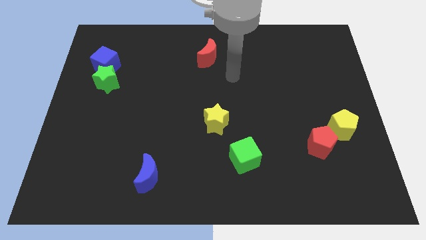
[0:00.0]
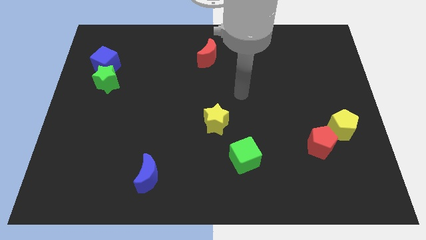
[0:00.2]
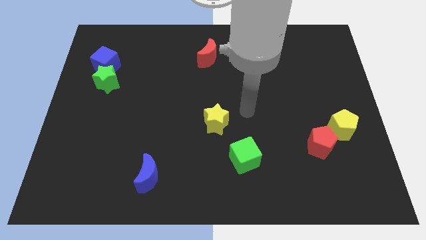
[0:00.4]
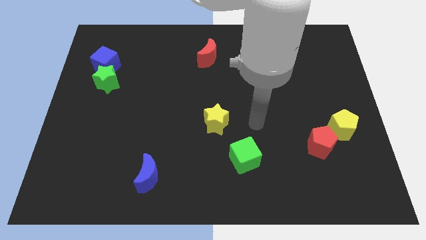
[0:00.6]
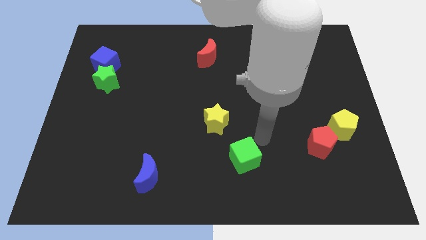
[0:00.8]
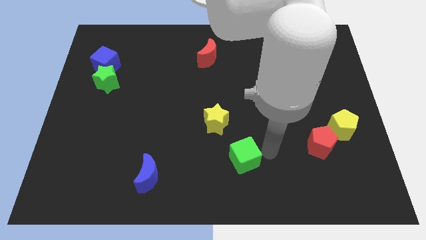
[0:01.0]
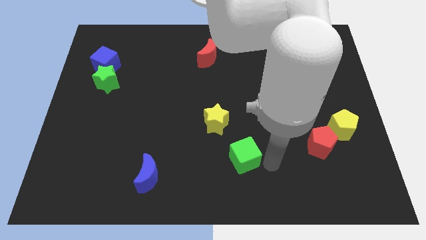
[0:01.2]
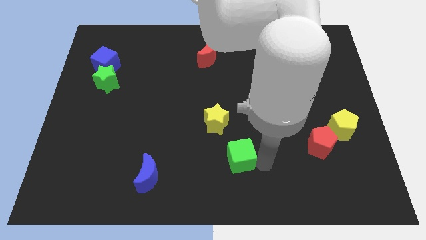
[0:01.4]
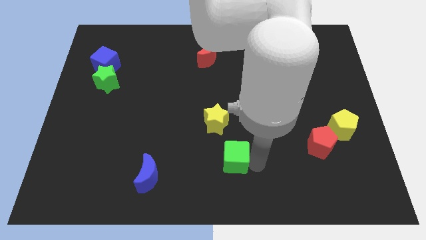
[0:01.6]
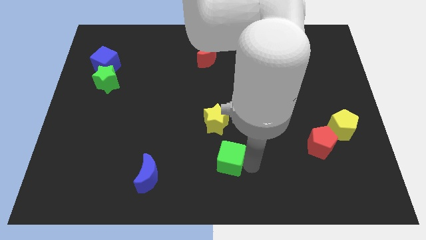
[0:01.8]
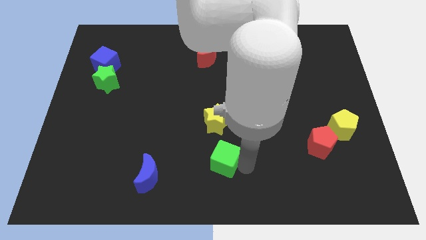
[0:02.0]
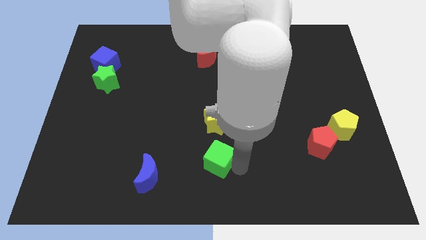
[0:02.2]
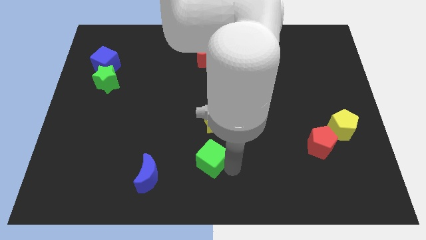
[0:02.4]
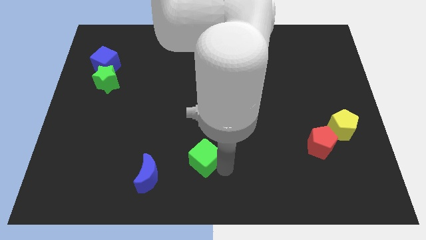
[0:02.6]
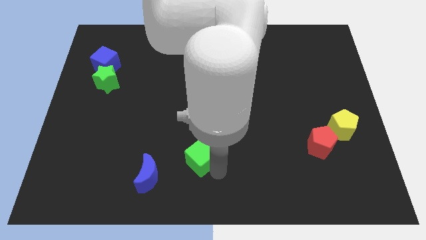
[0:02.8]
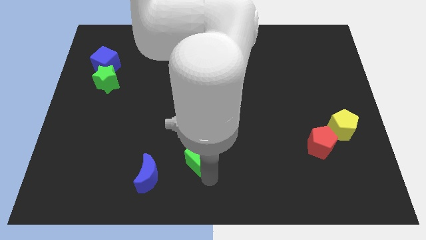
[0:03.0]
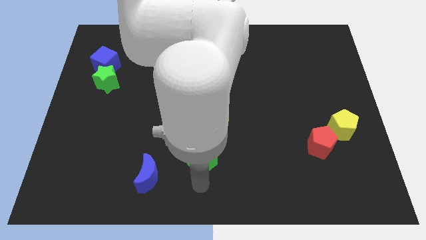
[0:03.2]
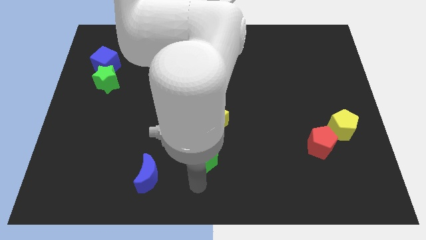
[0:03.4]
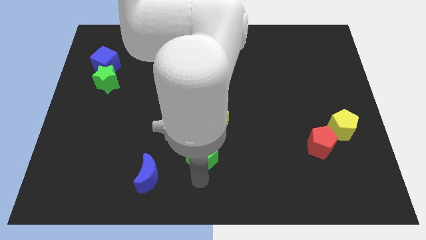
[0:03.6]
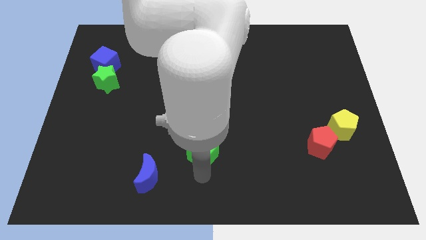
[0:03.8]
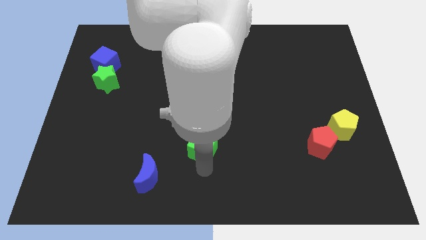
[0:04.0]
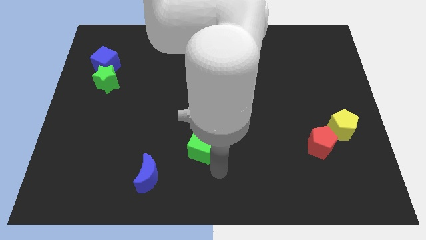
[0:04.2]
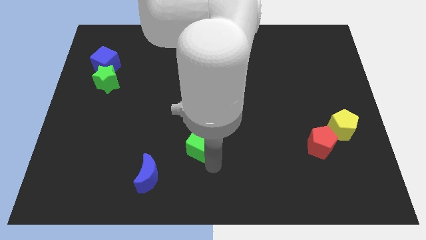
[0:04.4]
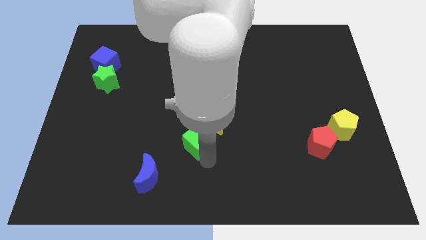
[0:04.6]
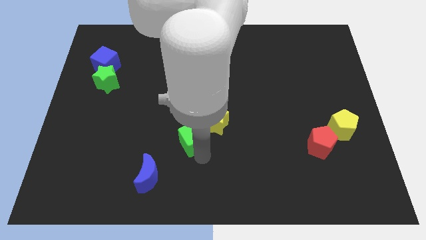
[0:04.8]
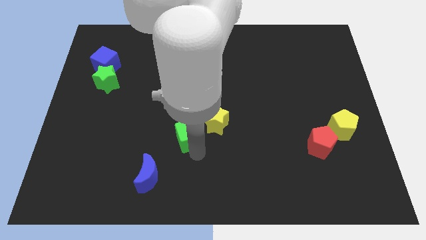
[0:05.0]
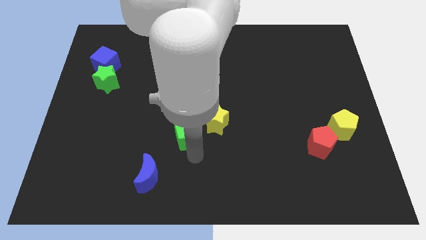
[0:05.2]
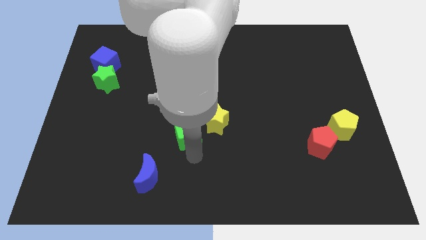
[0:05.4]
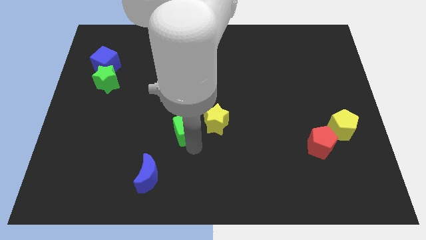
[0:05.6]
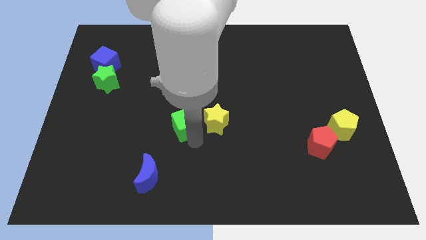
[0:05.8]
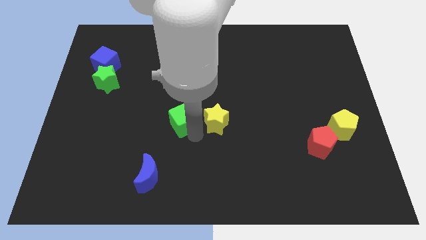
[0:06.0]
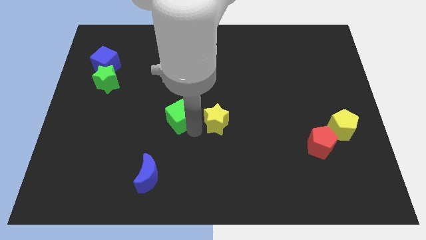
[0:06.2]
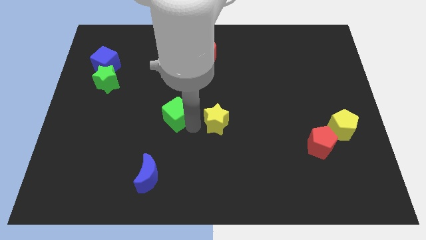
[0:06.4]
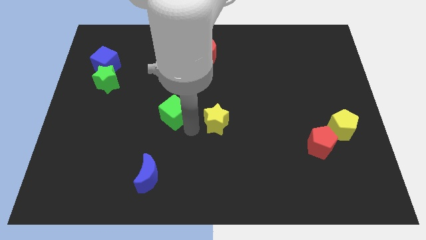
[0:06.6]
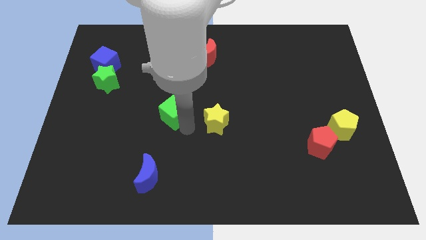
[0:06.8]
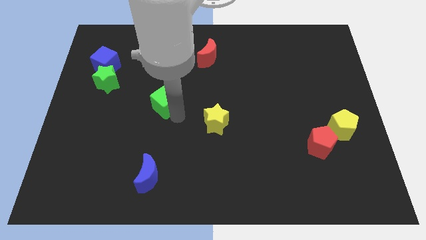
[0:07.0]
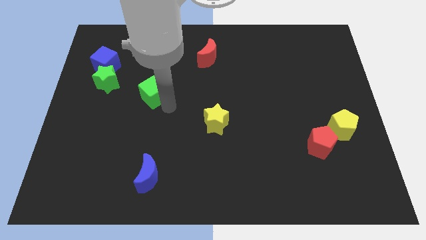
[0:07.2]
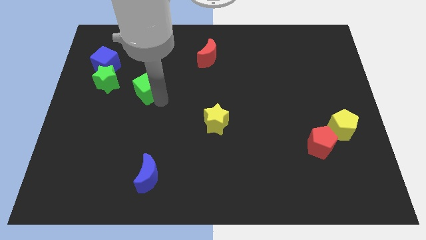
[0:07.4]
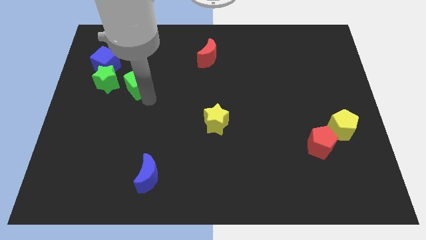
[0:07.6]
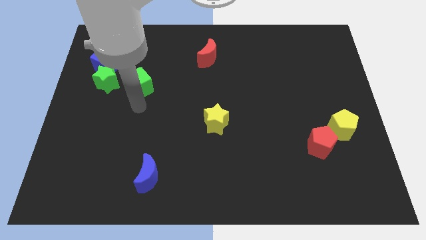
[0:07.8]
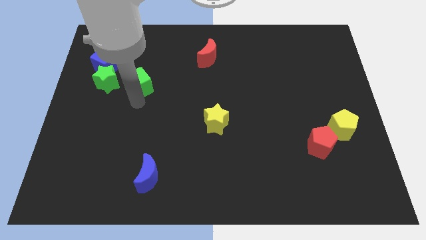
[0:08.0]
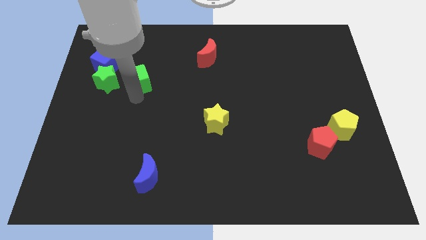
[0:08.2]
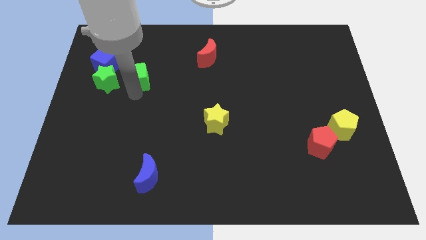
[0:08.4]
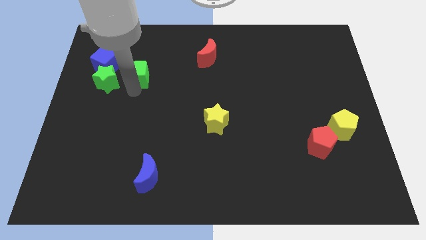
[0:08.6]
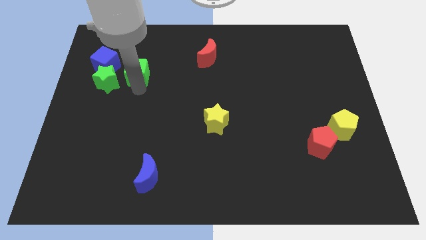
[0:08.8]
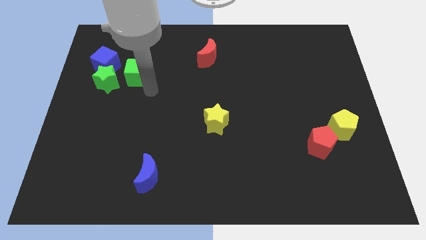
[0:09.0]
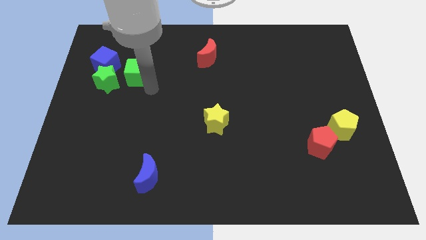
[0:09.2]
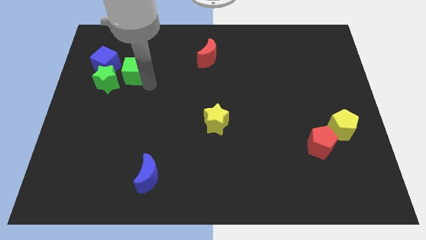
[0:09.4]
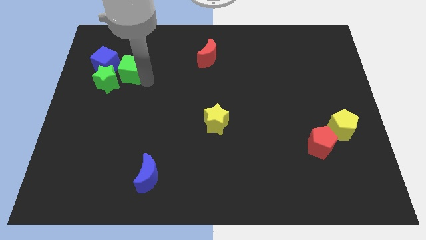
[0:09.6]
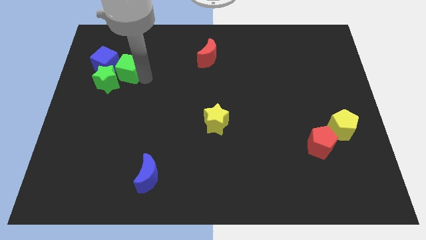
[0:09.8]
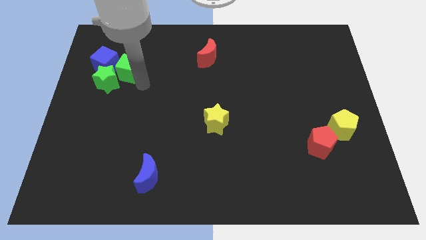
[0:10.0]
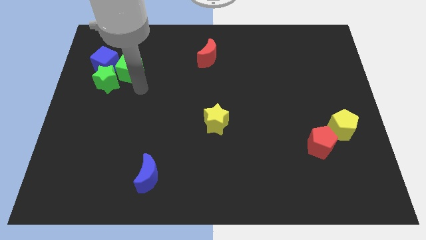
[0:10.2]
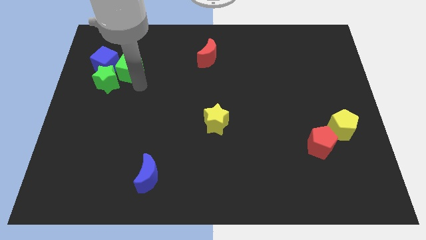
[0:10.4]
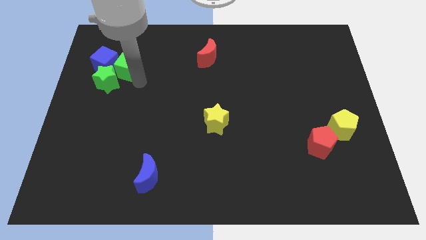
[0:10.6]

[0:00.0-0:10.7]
push the green cube next to the blue cube

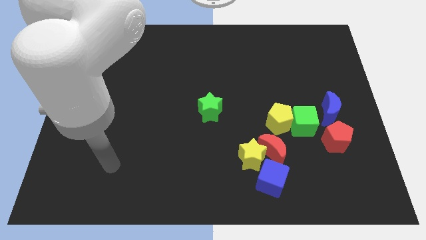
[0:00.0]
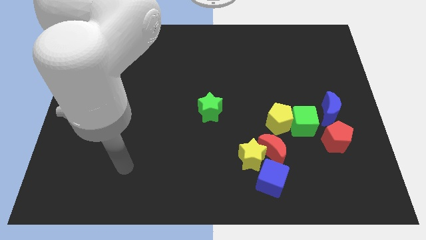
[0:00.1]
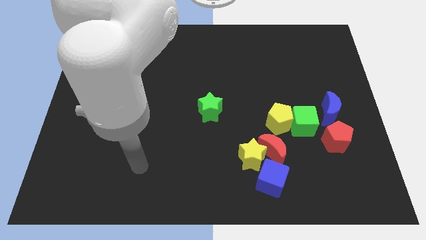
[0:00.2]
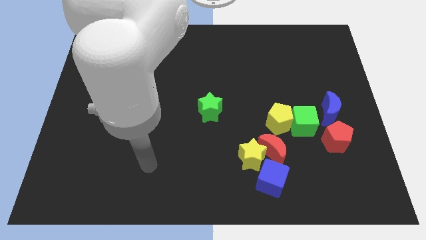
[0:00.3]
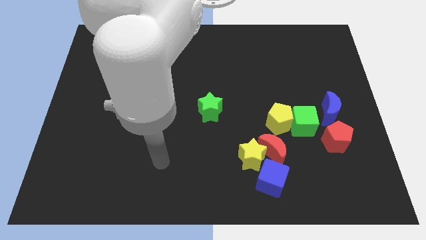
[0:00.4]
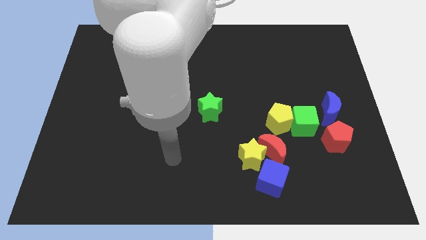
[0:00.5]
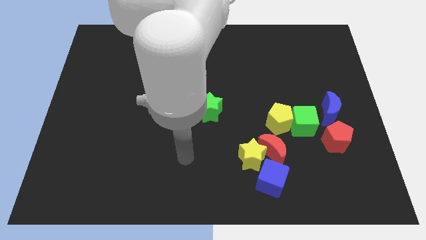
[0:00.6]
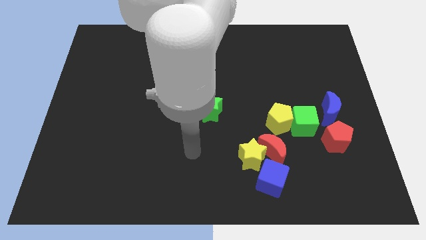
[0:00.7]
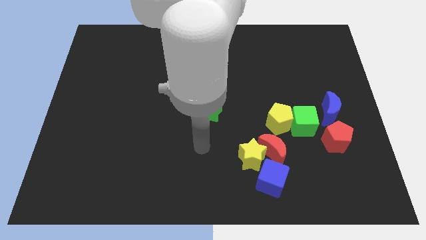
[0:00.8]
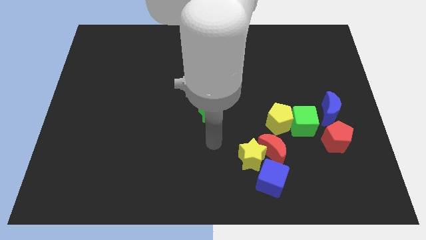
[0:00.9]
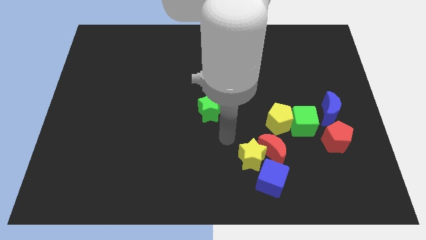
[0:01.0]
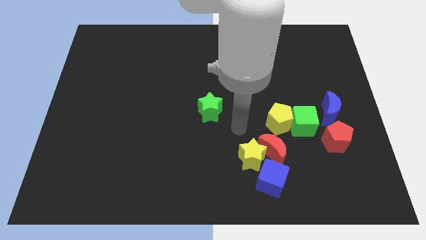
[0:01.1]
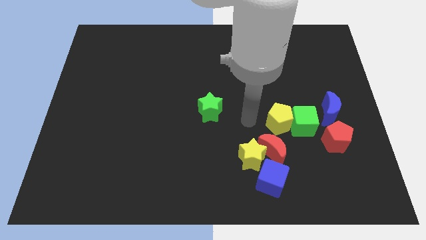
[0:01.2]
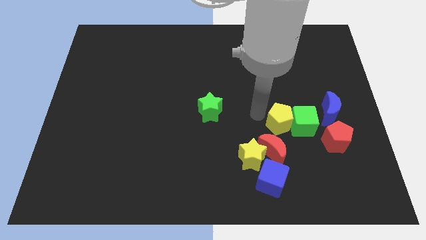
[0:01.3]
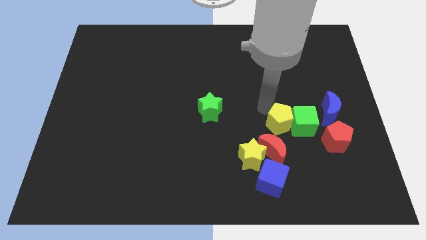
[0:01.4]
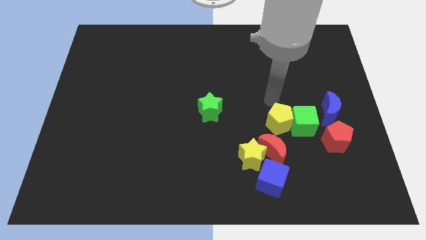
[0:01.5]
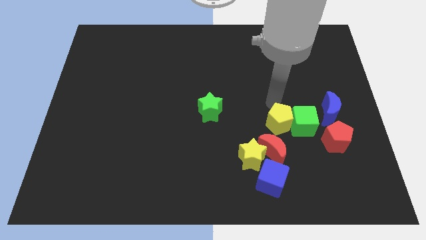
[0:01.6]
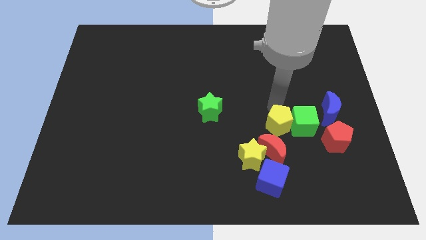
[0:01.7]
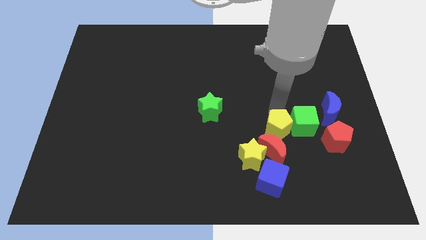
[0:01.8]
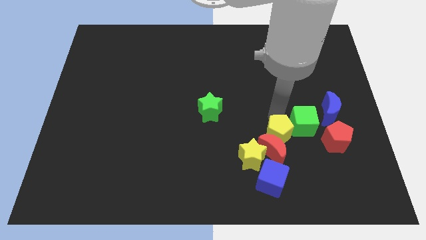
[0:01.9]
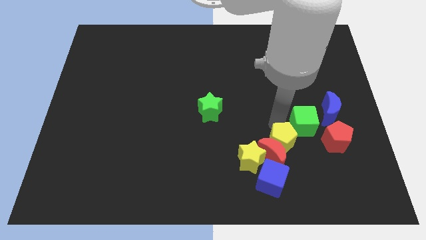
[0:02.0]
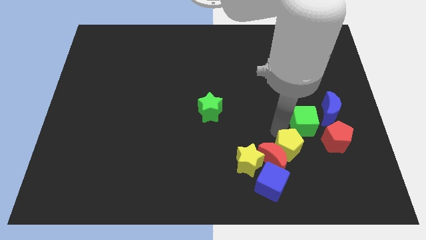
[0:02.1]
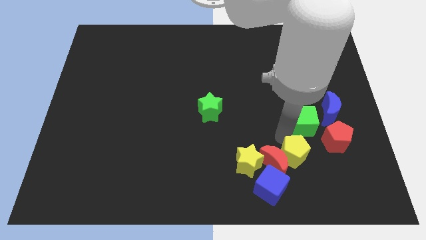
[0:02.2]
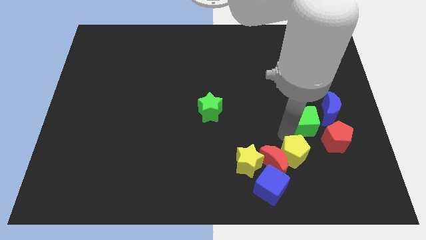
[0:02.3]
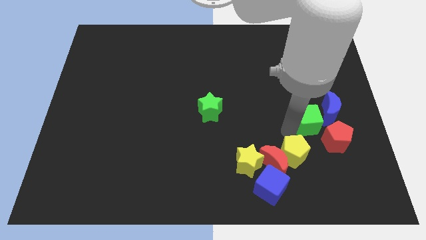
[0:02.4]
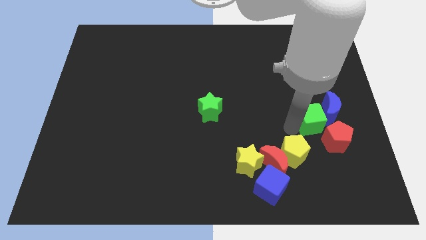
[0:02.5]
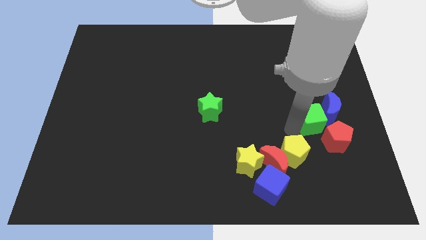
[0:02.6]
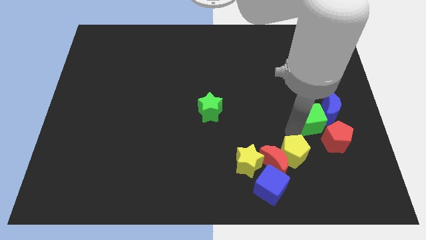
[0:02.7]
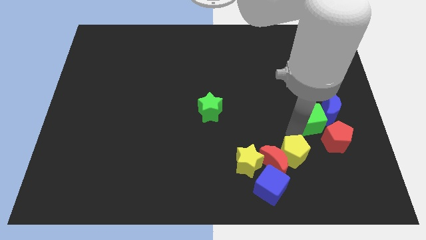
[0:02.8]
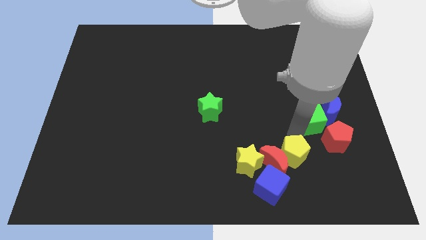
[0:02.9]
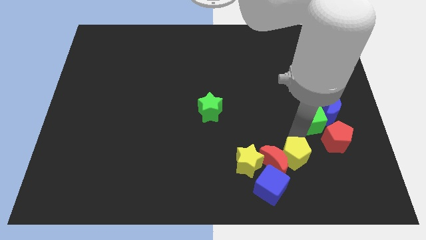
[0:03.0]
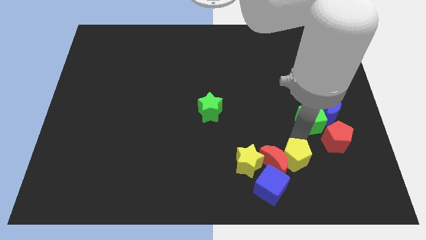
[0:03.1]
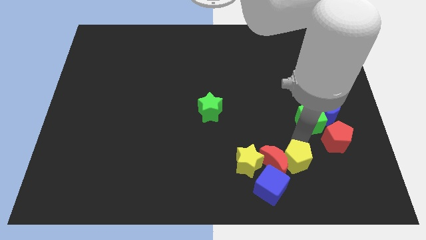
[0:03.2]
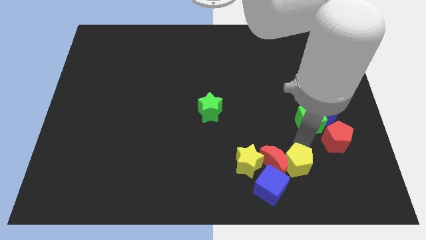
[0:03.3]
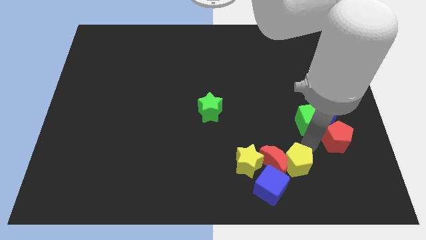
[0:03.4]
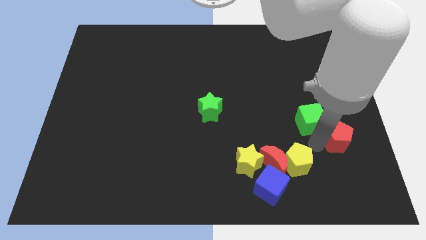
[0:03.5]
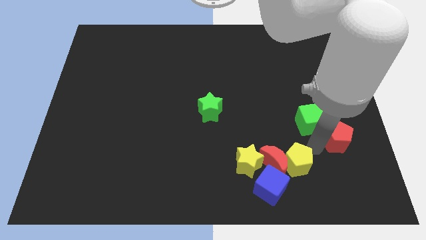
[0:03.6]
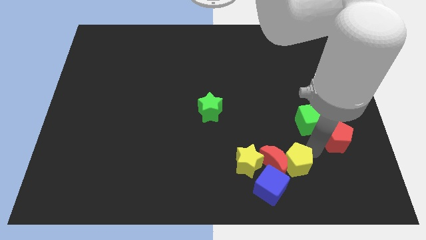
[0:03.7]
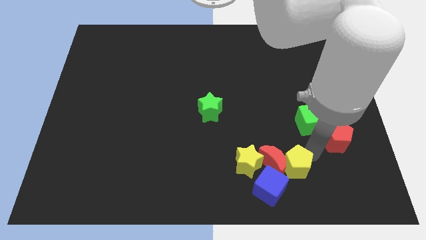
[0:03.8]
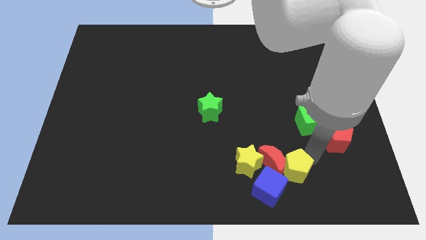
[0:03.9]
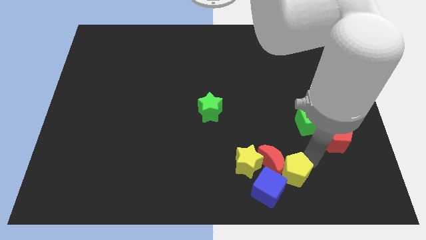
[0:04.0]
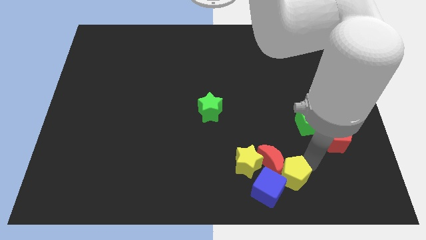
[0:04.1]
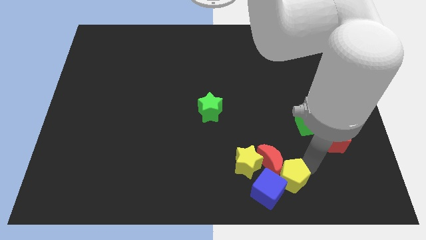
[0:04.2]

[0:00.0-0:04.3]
slide the yellow pentagon next to the blue cube
